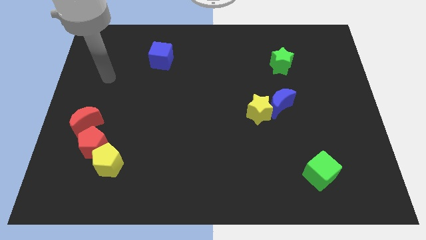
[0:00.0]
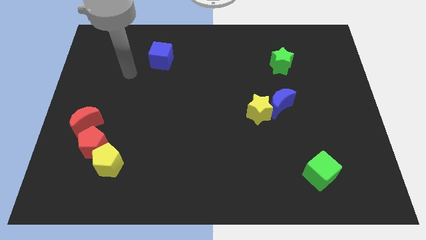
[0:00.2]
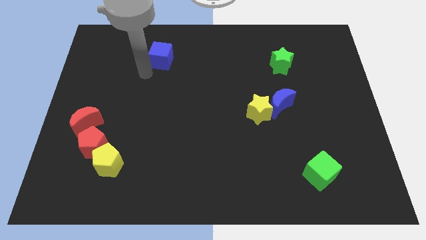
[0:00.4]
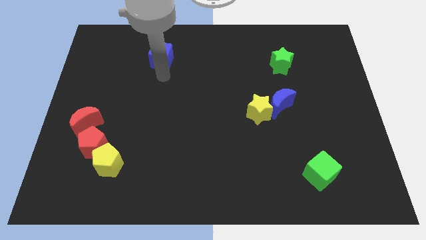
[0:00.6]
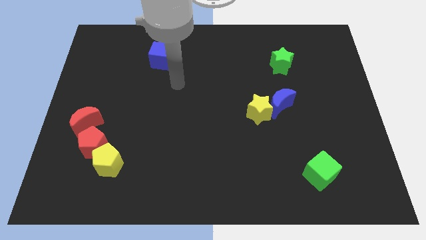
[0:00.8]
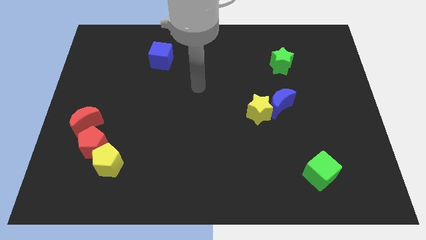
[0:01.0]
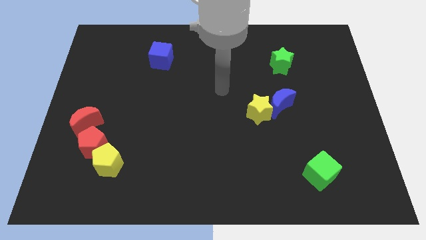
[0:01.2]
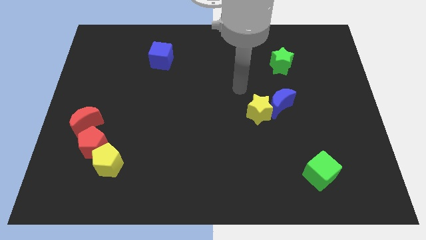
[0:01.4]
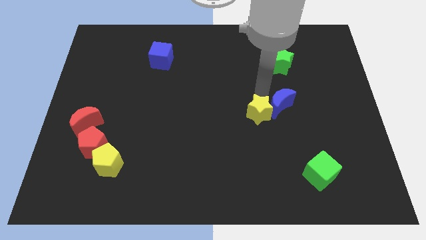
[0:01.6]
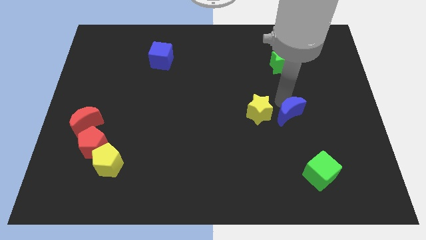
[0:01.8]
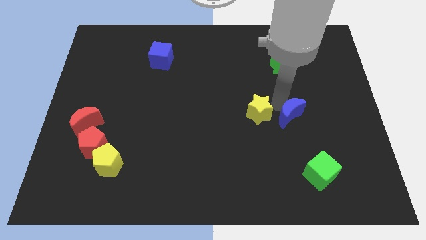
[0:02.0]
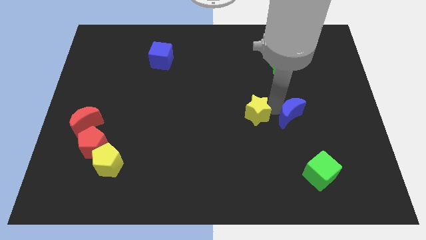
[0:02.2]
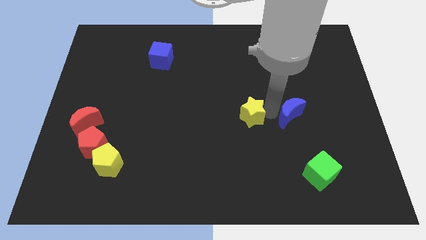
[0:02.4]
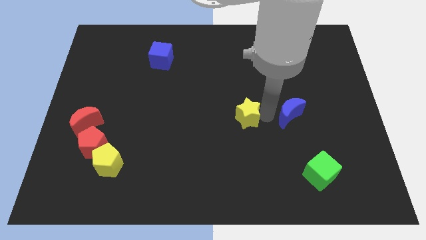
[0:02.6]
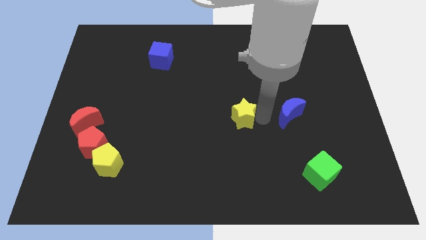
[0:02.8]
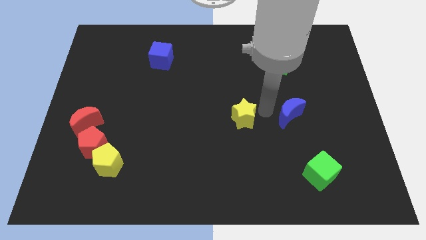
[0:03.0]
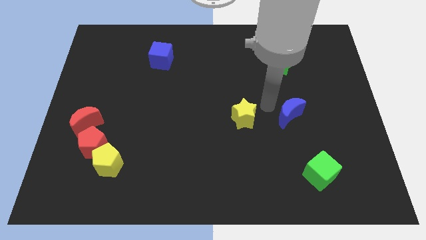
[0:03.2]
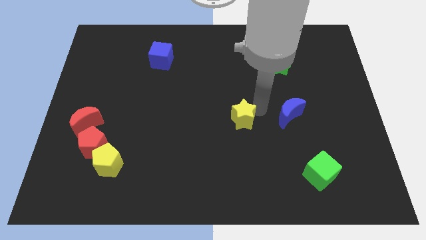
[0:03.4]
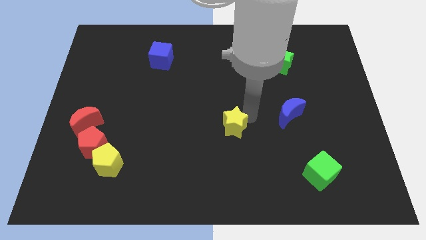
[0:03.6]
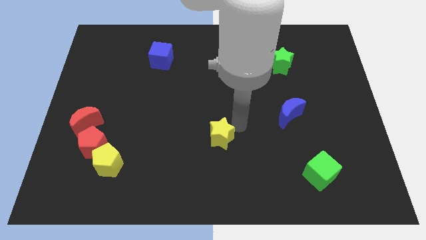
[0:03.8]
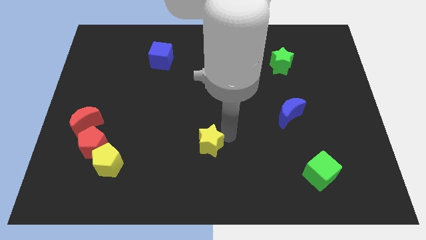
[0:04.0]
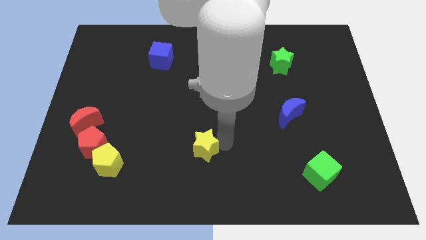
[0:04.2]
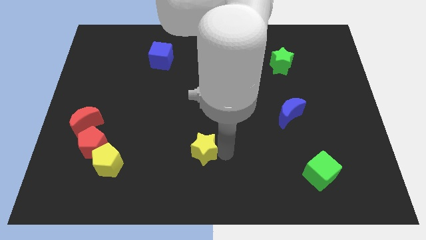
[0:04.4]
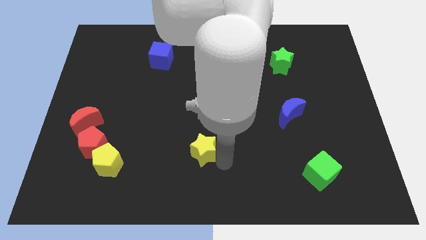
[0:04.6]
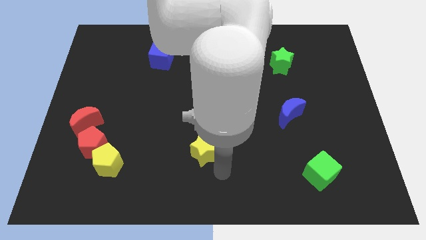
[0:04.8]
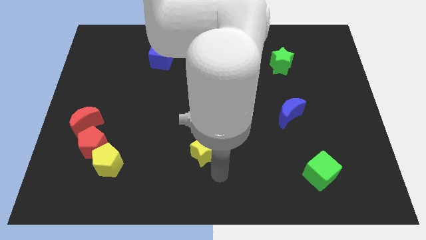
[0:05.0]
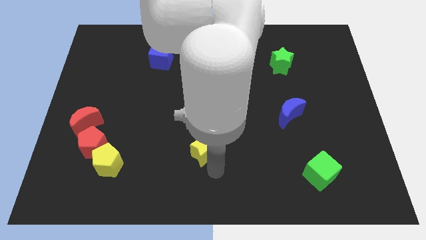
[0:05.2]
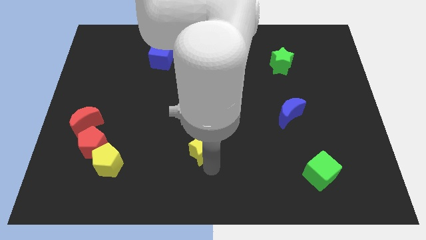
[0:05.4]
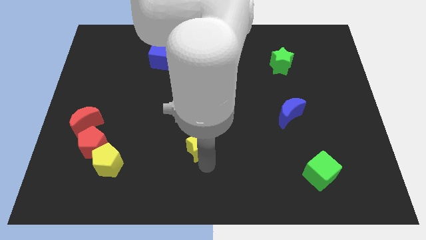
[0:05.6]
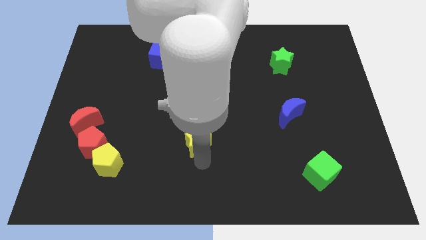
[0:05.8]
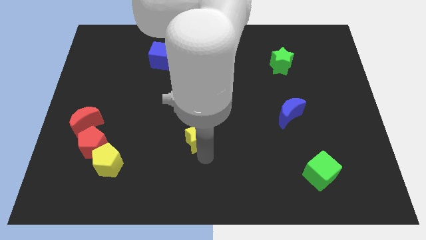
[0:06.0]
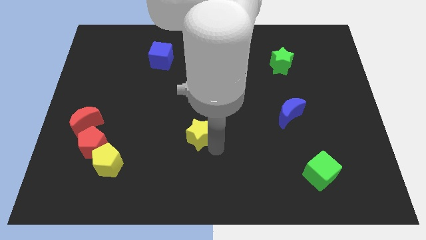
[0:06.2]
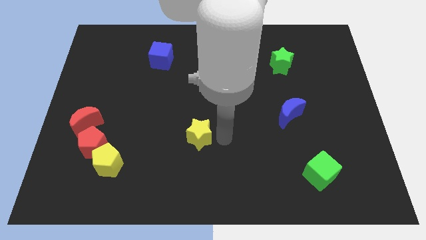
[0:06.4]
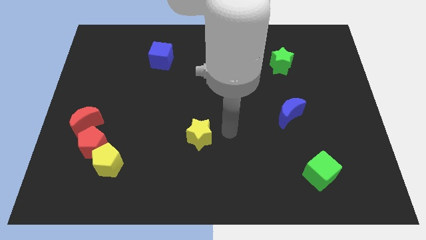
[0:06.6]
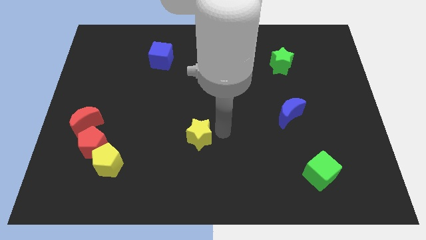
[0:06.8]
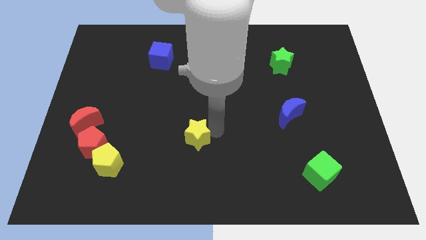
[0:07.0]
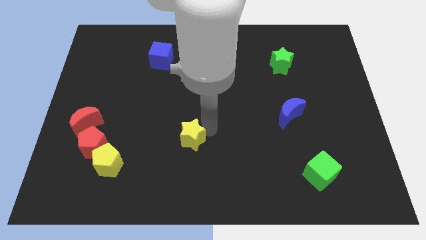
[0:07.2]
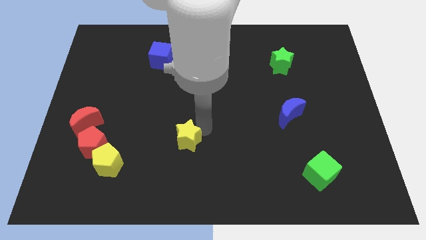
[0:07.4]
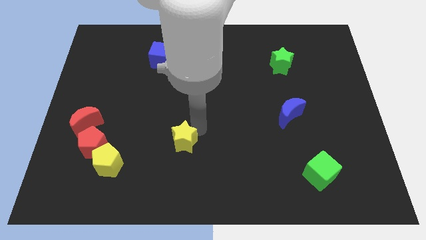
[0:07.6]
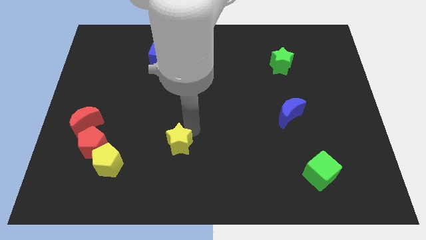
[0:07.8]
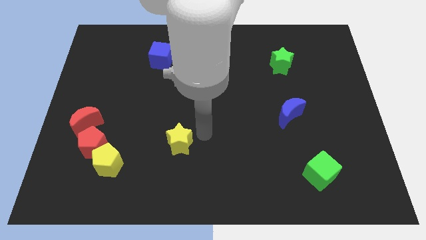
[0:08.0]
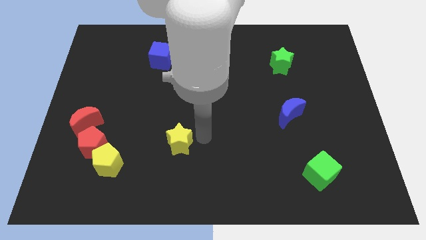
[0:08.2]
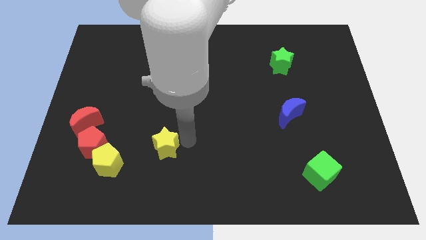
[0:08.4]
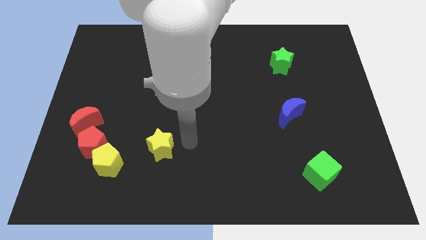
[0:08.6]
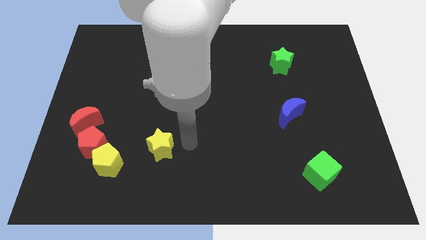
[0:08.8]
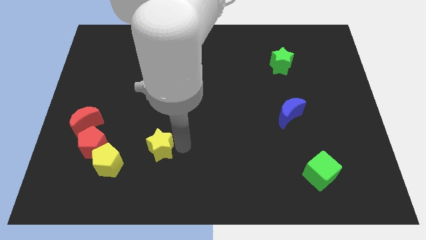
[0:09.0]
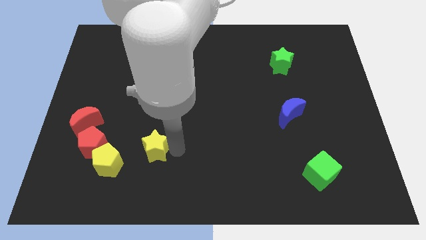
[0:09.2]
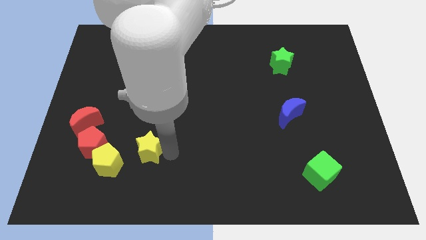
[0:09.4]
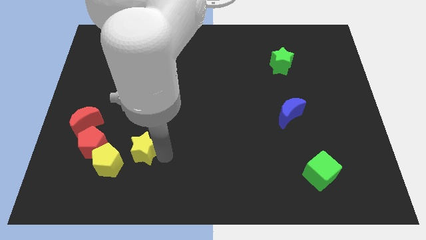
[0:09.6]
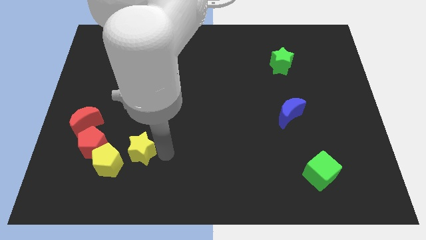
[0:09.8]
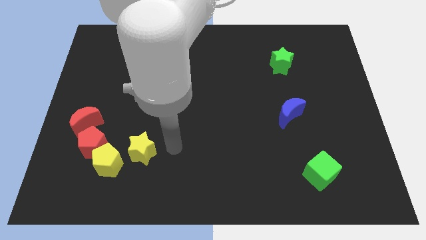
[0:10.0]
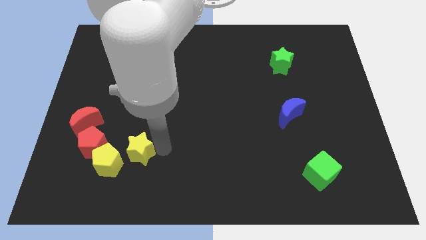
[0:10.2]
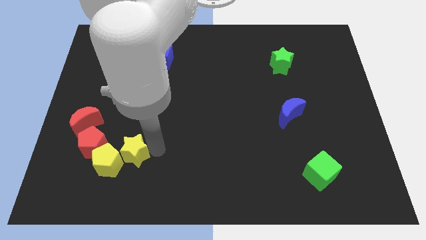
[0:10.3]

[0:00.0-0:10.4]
put the yellow star towards the yellow pentagon

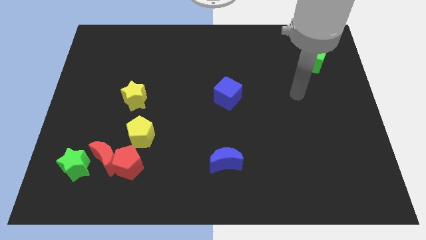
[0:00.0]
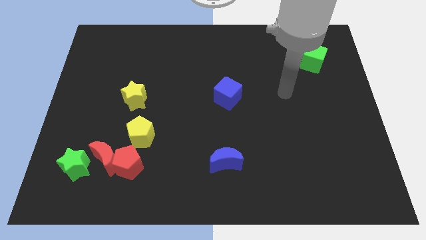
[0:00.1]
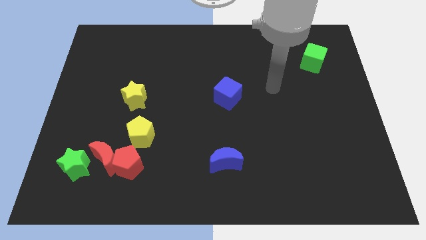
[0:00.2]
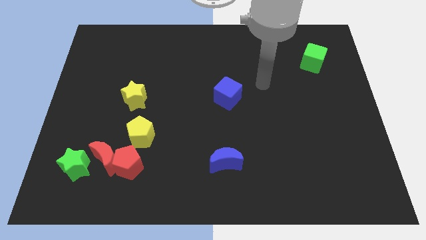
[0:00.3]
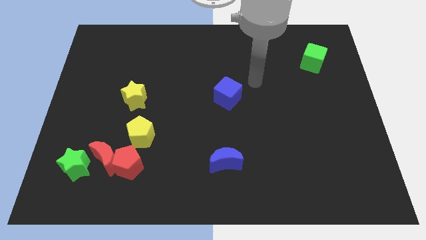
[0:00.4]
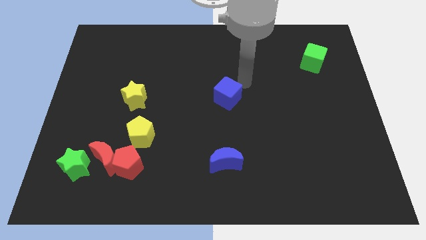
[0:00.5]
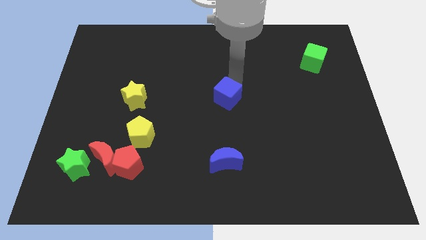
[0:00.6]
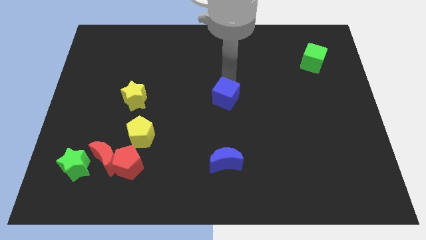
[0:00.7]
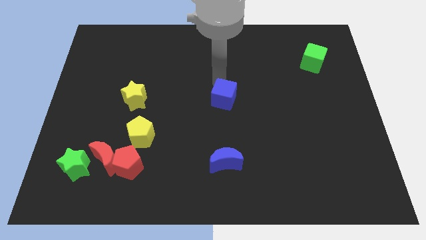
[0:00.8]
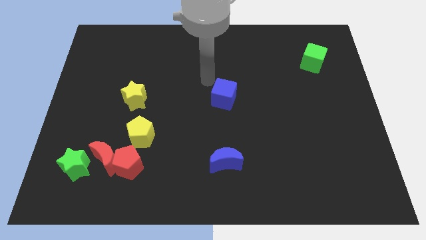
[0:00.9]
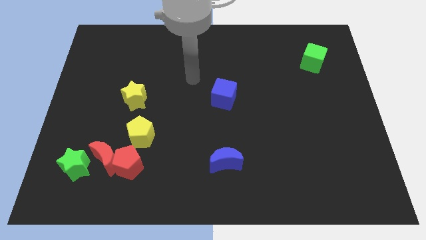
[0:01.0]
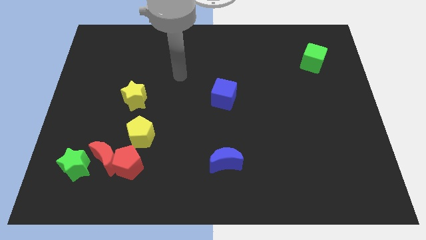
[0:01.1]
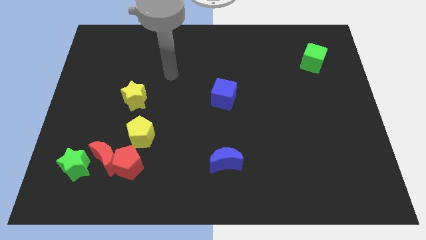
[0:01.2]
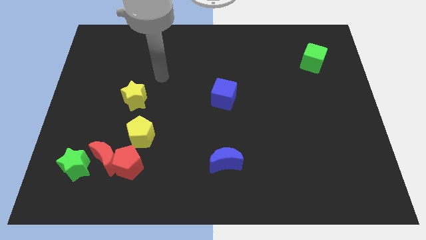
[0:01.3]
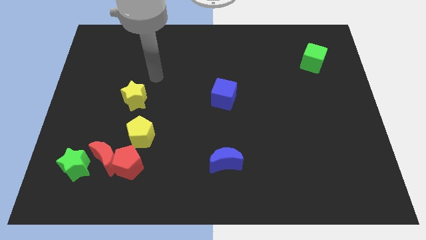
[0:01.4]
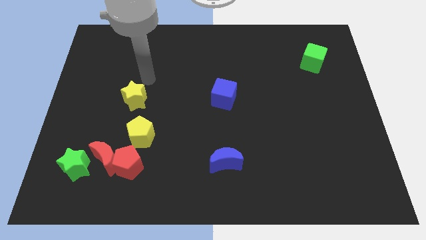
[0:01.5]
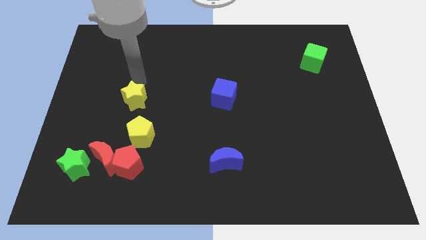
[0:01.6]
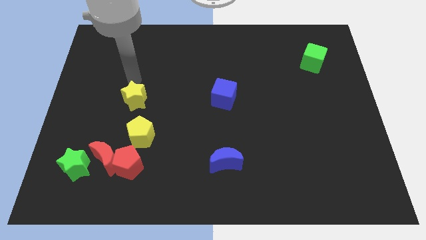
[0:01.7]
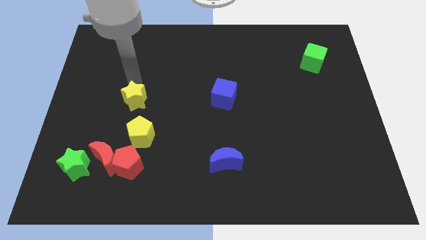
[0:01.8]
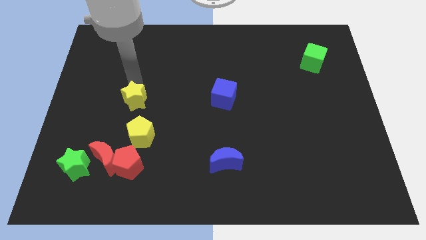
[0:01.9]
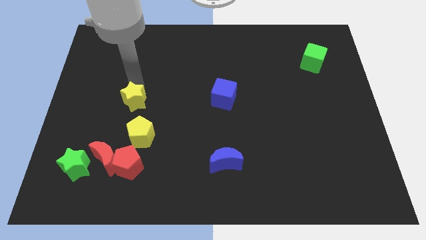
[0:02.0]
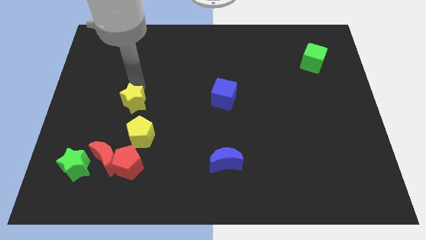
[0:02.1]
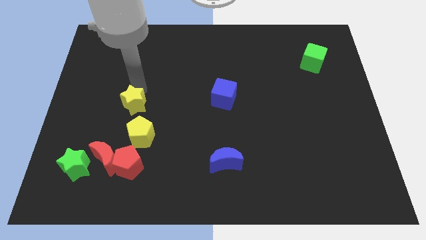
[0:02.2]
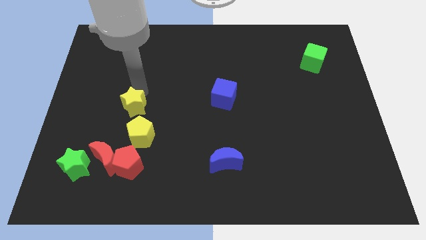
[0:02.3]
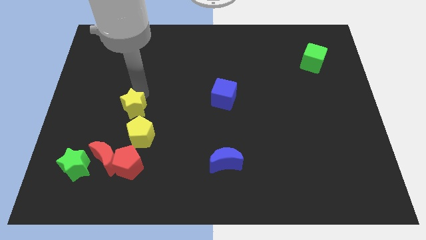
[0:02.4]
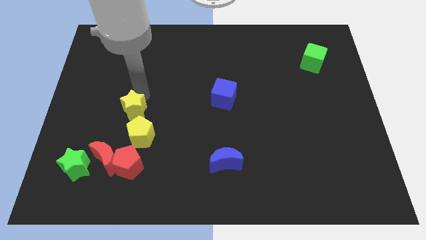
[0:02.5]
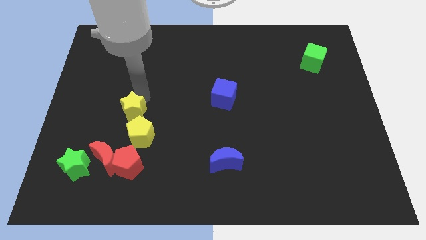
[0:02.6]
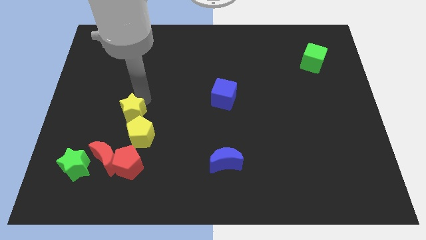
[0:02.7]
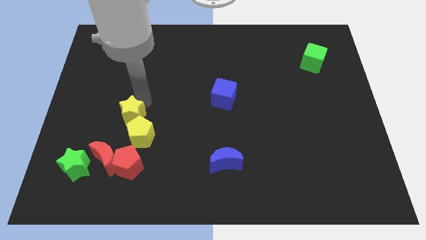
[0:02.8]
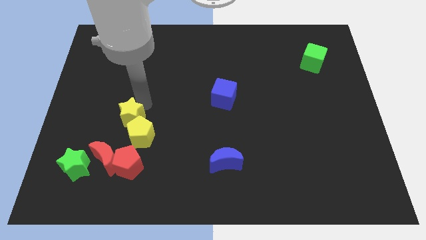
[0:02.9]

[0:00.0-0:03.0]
put the yellow star to the yellow pentagon
